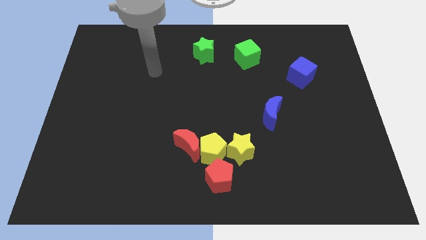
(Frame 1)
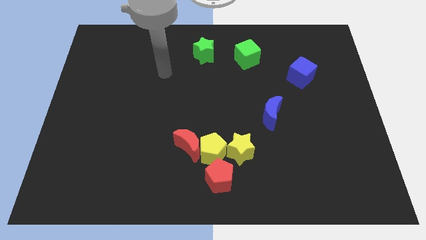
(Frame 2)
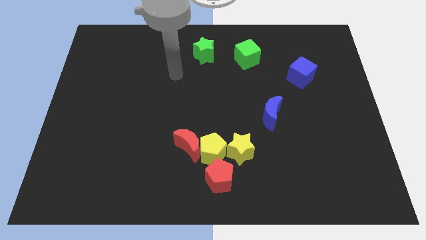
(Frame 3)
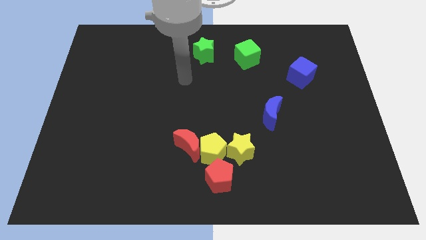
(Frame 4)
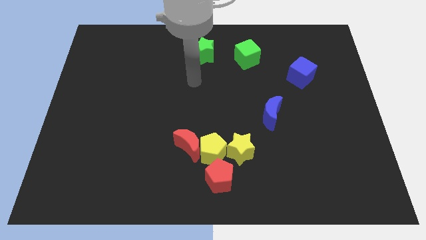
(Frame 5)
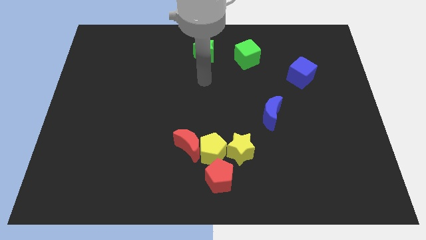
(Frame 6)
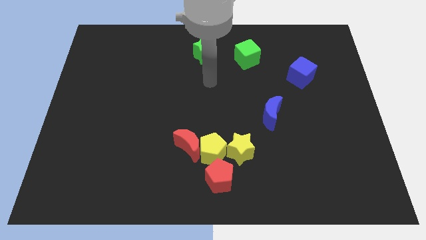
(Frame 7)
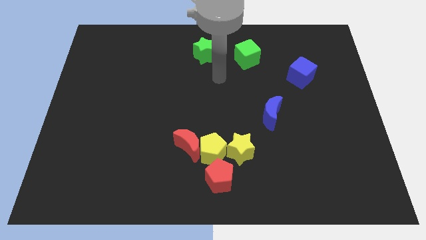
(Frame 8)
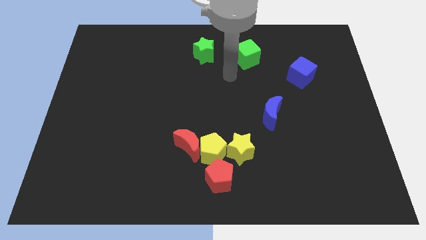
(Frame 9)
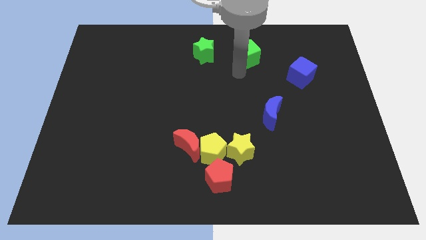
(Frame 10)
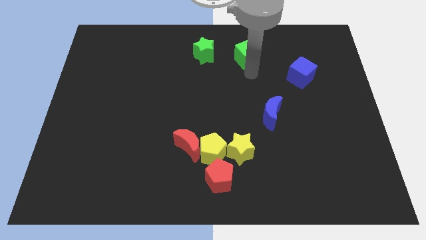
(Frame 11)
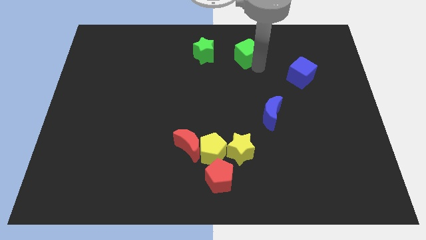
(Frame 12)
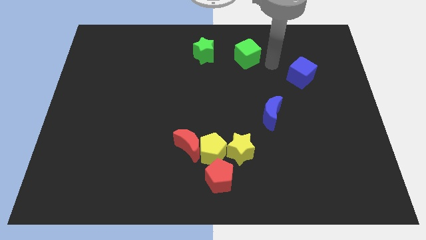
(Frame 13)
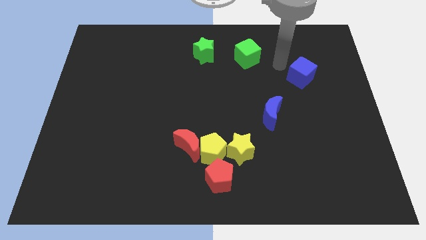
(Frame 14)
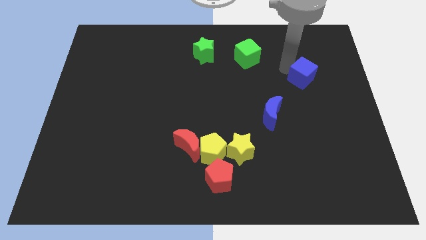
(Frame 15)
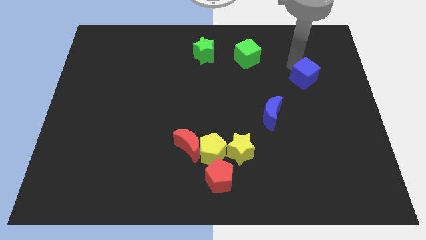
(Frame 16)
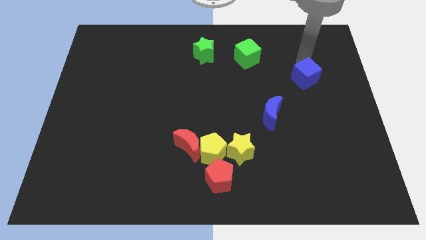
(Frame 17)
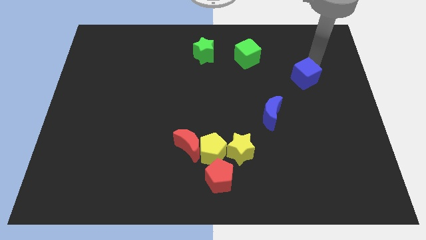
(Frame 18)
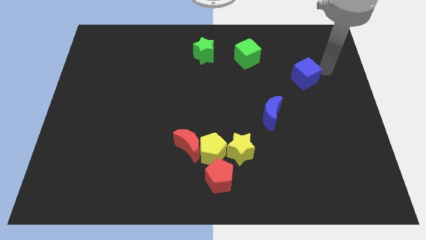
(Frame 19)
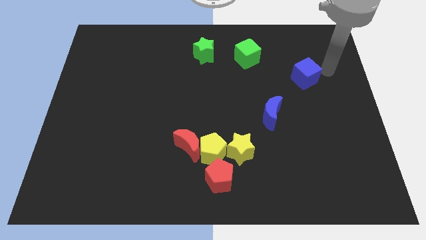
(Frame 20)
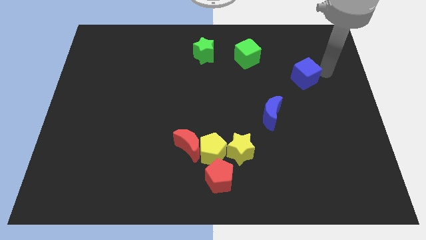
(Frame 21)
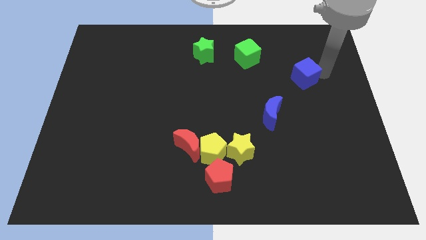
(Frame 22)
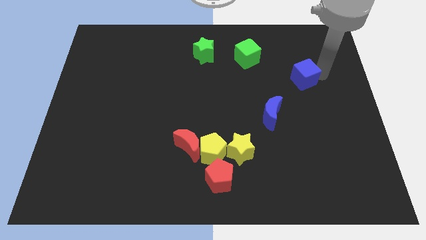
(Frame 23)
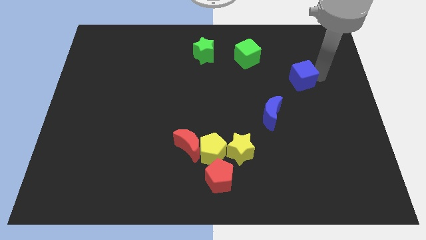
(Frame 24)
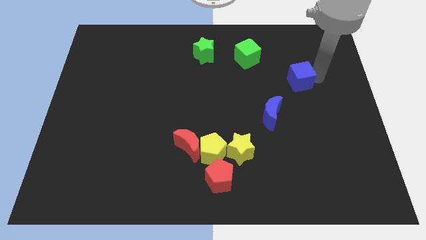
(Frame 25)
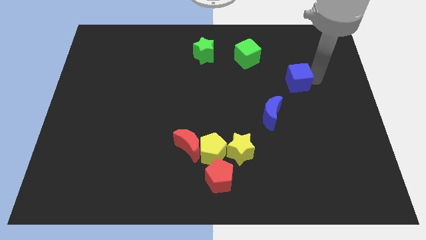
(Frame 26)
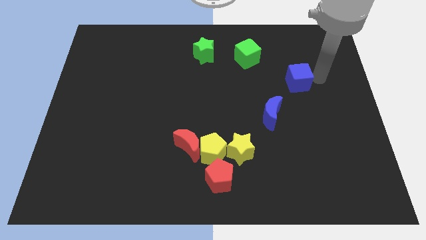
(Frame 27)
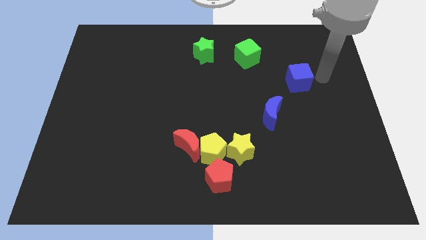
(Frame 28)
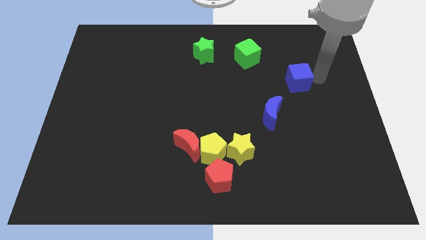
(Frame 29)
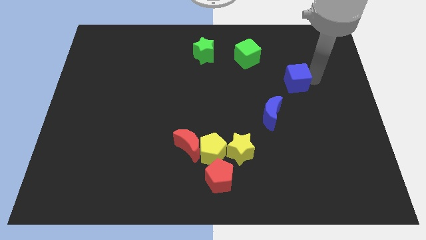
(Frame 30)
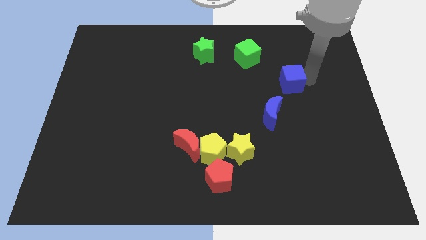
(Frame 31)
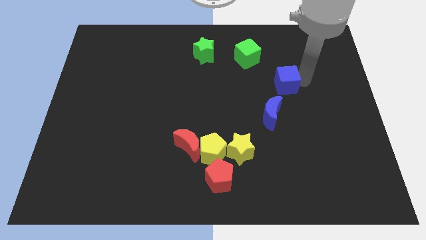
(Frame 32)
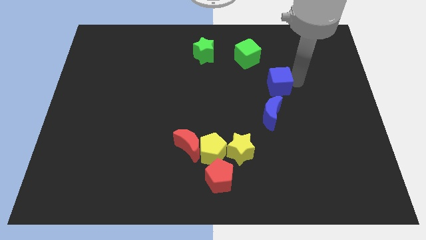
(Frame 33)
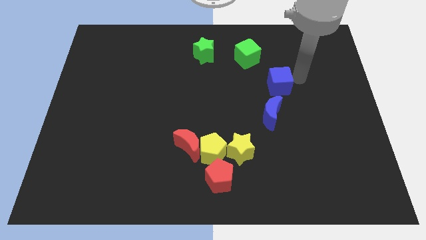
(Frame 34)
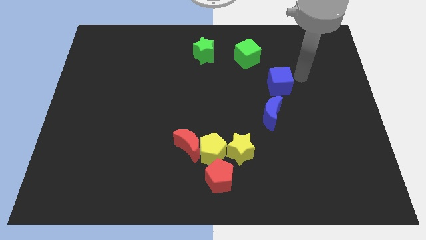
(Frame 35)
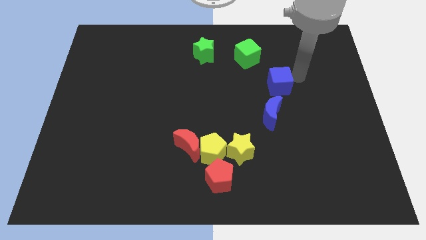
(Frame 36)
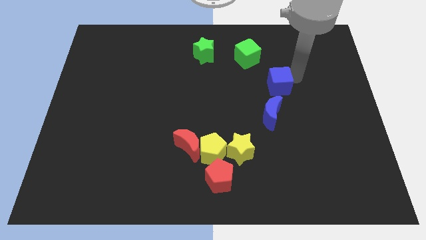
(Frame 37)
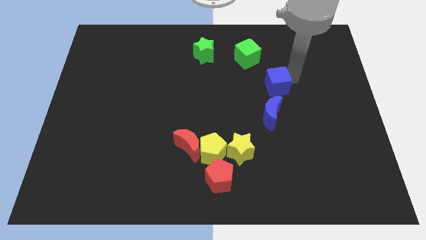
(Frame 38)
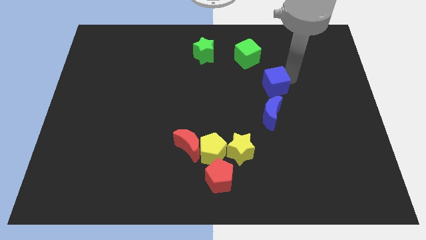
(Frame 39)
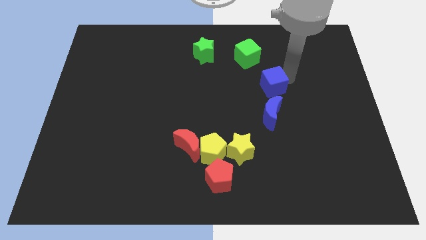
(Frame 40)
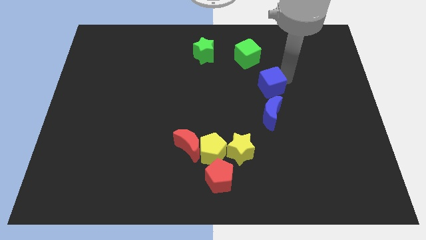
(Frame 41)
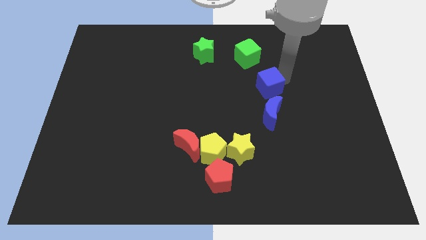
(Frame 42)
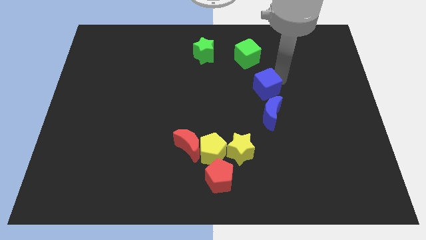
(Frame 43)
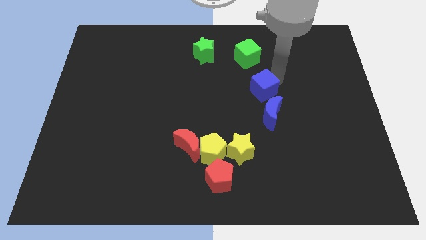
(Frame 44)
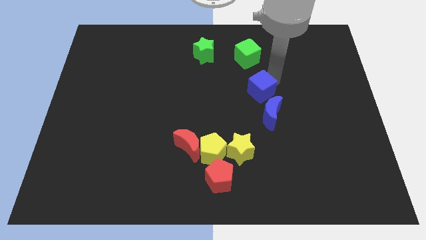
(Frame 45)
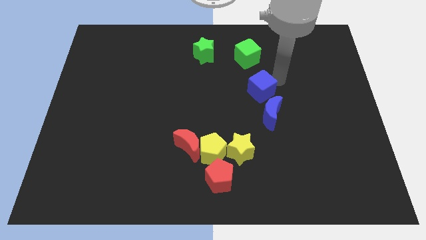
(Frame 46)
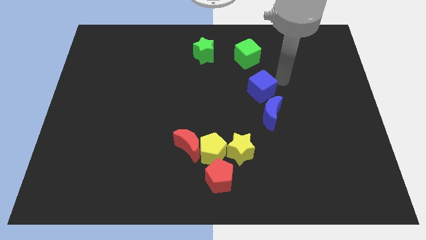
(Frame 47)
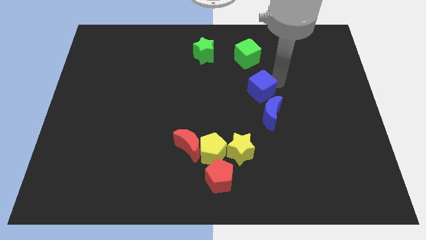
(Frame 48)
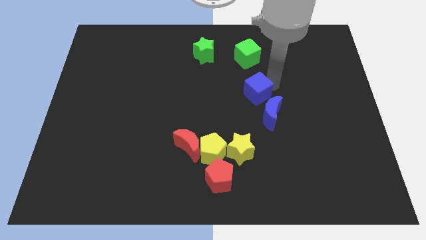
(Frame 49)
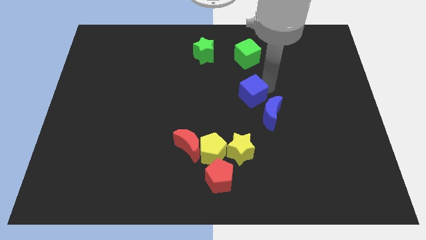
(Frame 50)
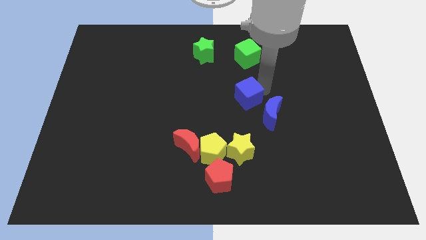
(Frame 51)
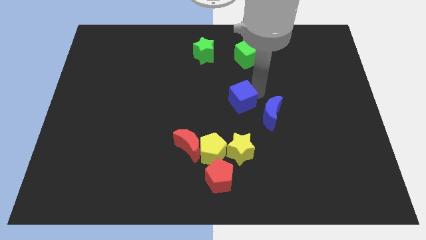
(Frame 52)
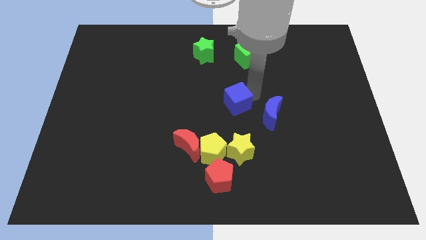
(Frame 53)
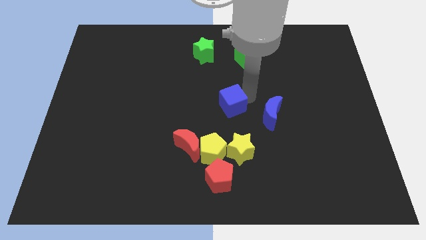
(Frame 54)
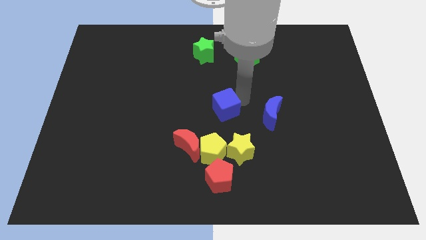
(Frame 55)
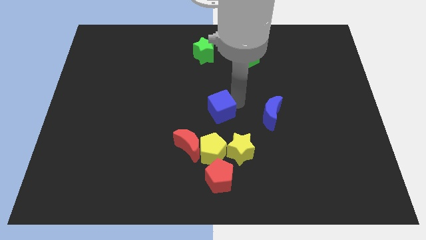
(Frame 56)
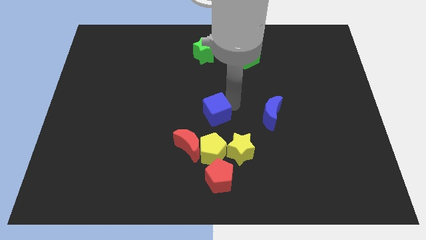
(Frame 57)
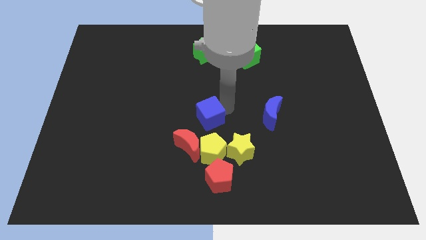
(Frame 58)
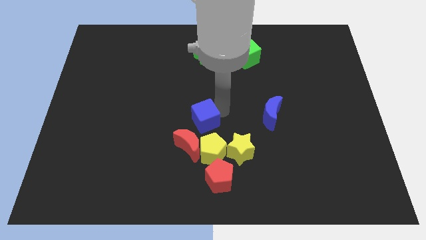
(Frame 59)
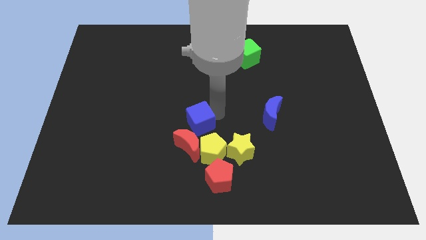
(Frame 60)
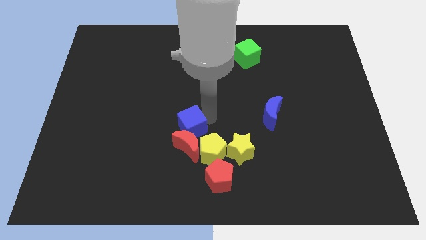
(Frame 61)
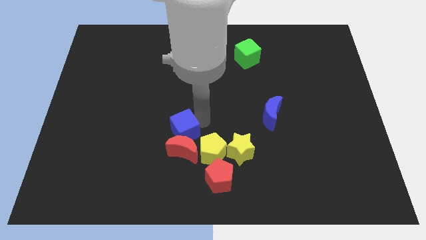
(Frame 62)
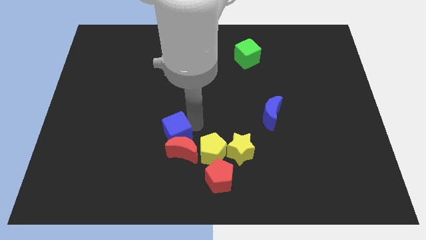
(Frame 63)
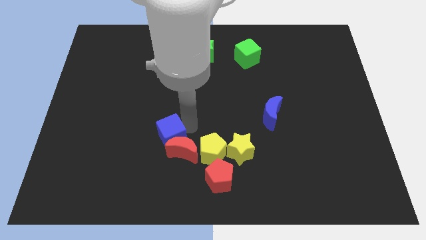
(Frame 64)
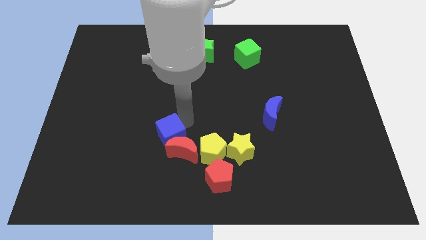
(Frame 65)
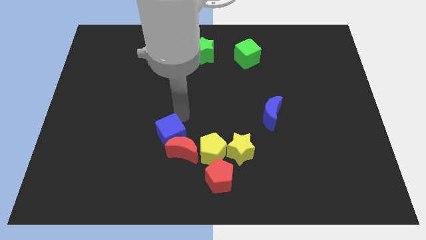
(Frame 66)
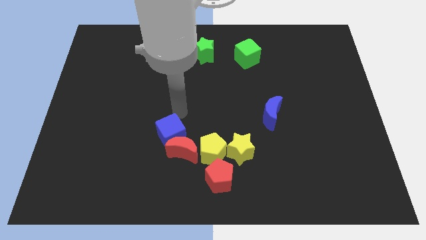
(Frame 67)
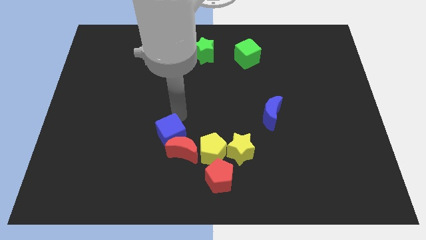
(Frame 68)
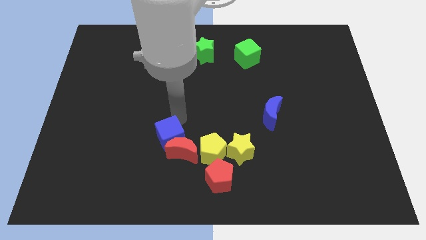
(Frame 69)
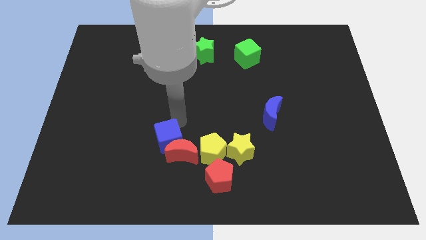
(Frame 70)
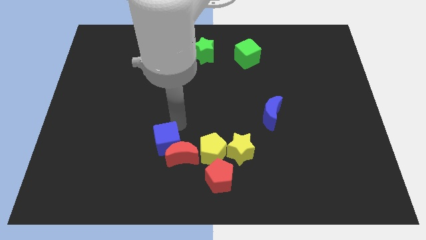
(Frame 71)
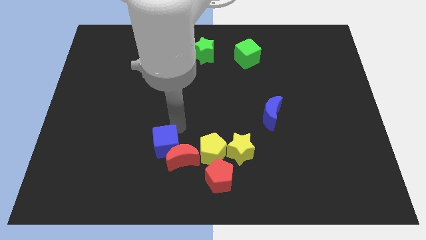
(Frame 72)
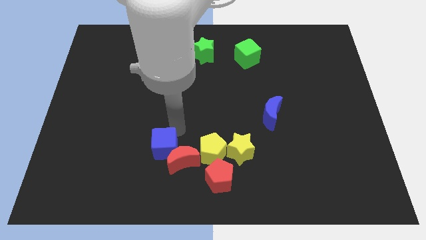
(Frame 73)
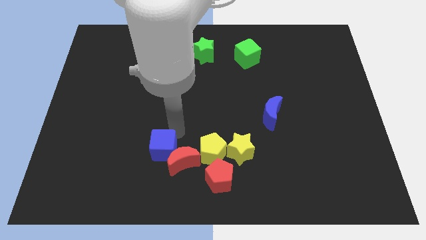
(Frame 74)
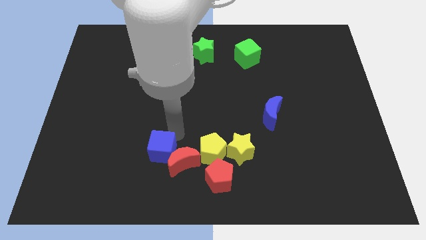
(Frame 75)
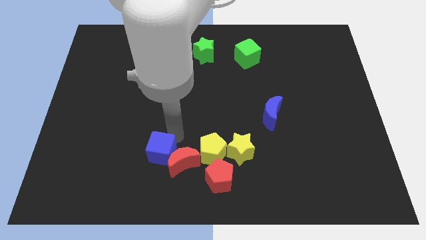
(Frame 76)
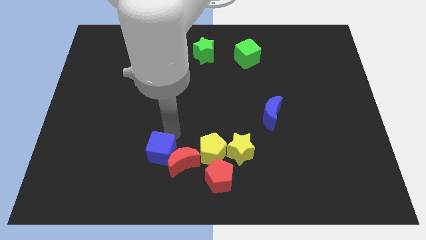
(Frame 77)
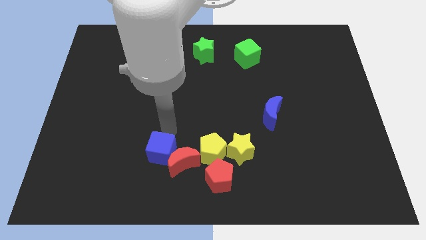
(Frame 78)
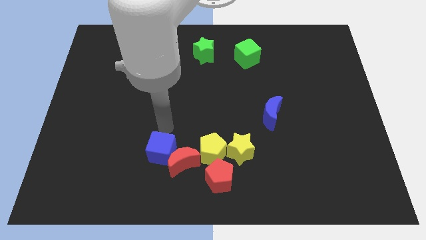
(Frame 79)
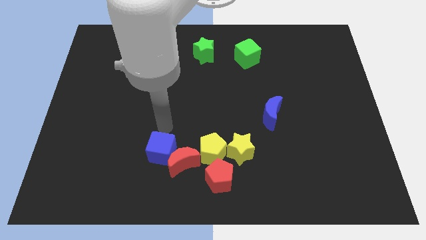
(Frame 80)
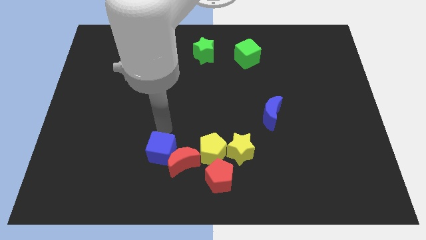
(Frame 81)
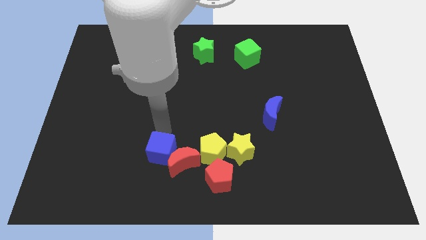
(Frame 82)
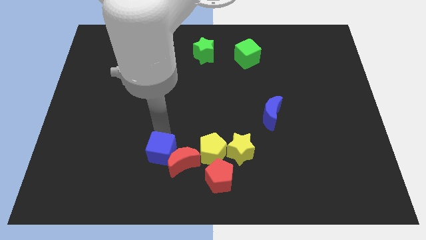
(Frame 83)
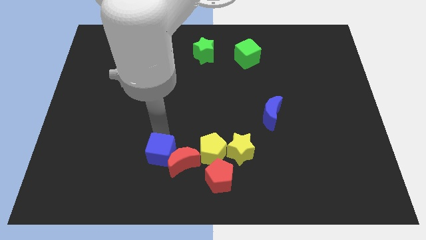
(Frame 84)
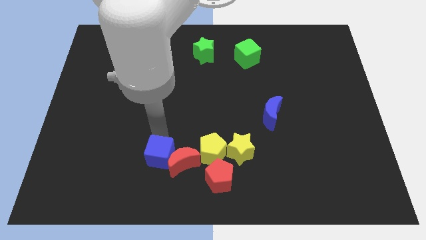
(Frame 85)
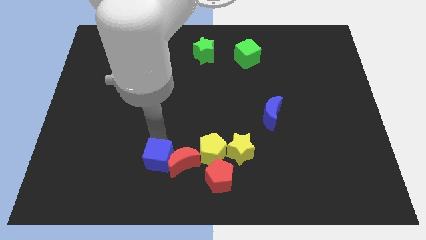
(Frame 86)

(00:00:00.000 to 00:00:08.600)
push the blue cube just left of the red pentagon
